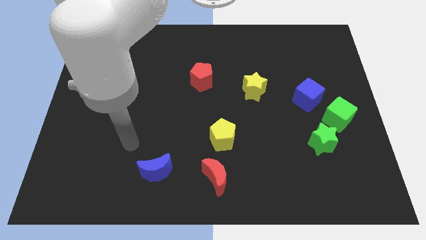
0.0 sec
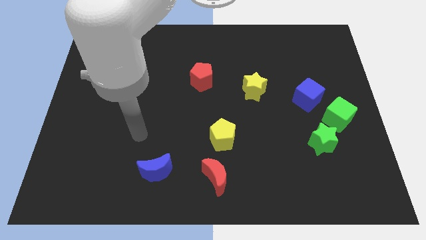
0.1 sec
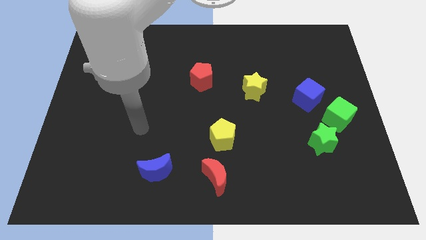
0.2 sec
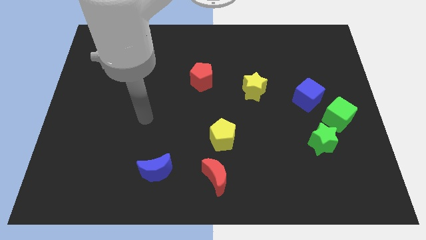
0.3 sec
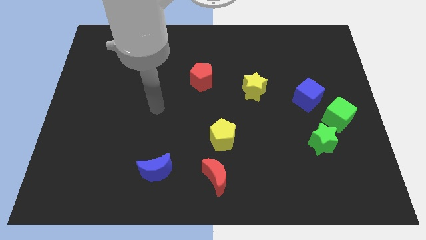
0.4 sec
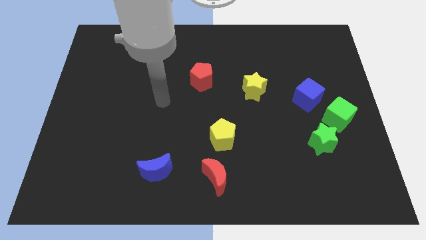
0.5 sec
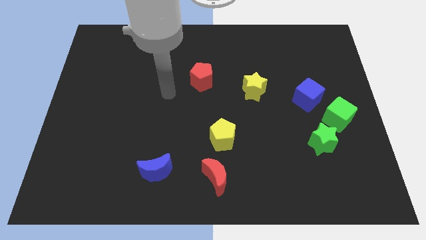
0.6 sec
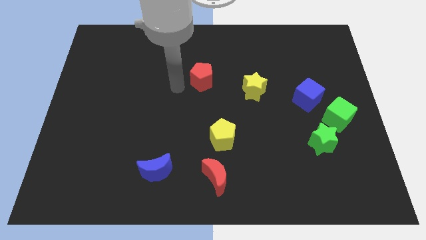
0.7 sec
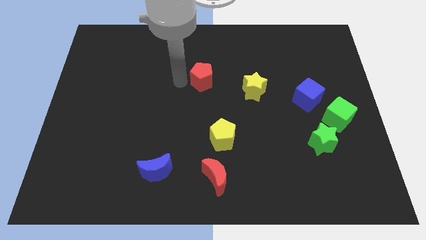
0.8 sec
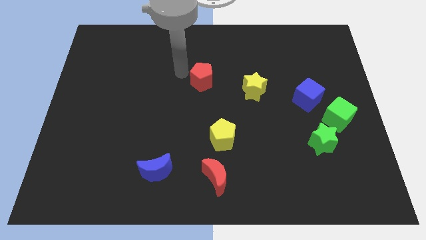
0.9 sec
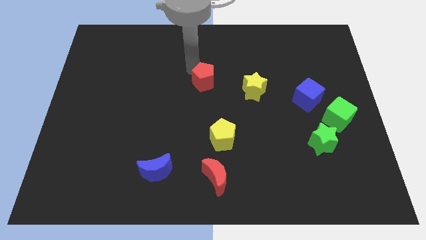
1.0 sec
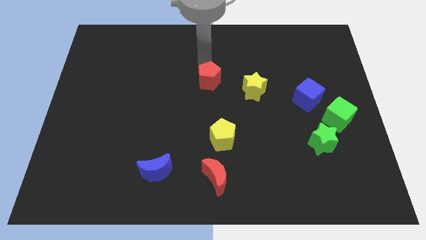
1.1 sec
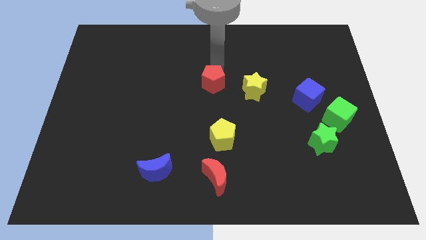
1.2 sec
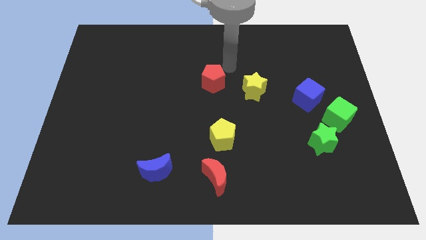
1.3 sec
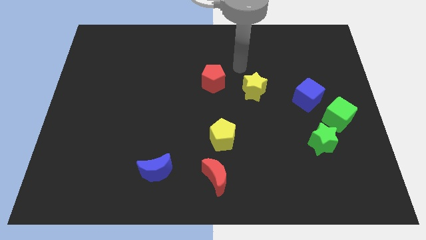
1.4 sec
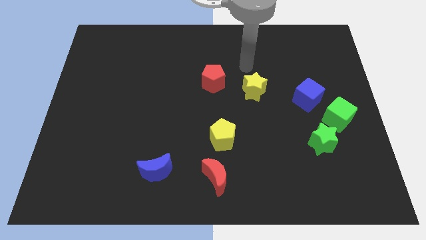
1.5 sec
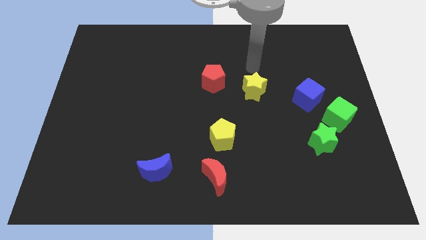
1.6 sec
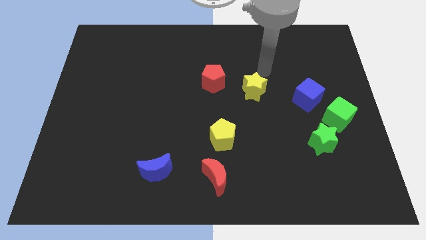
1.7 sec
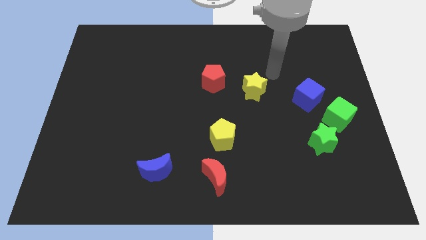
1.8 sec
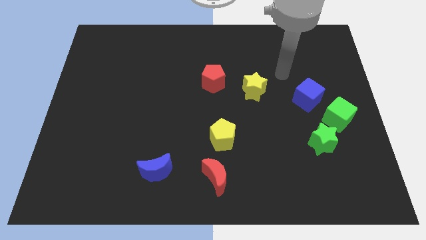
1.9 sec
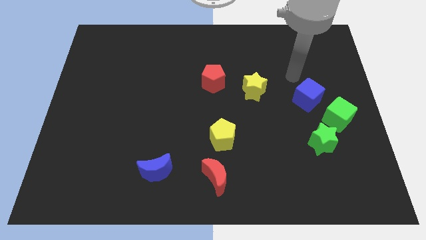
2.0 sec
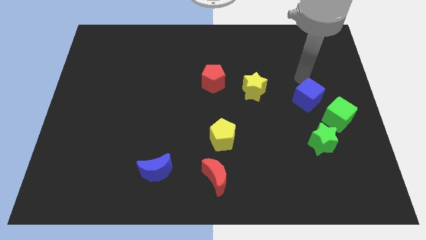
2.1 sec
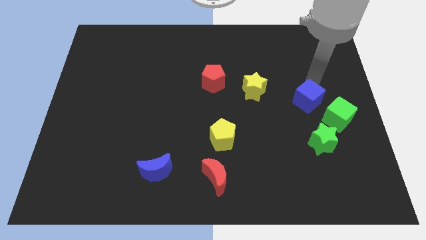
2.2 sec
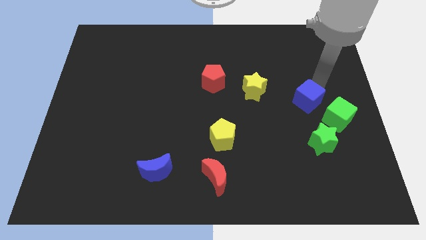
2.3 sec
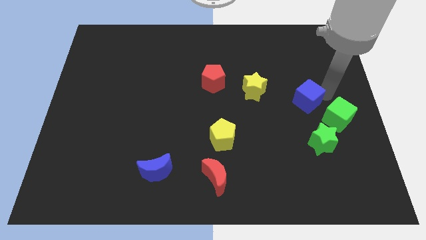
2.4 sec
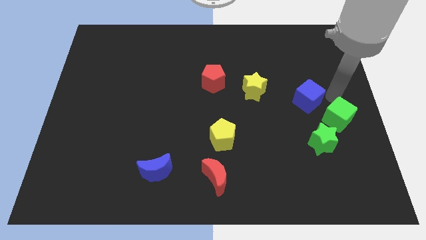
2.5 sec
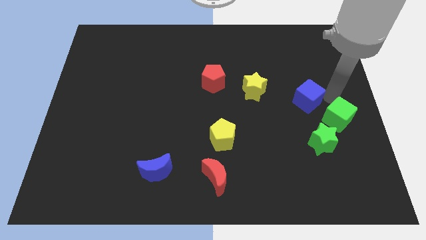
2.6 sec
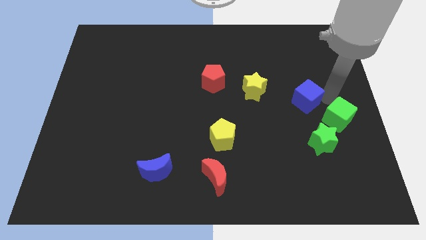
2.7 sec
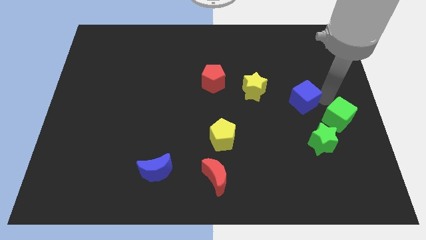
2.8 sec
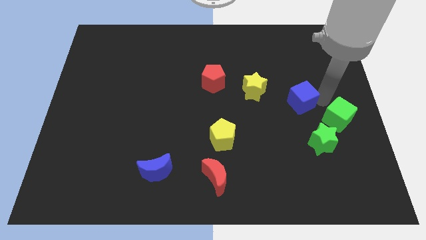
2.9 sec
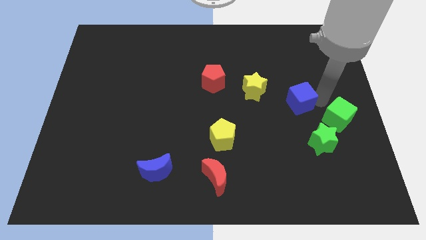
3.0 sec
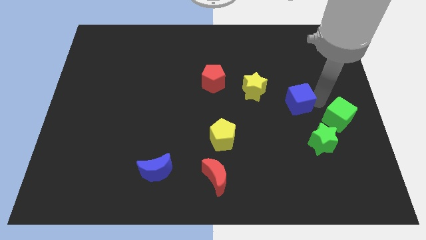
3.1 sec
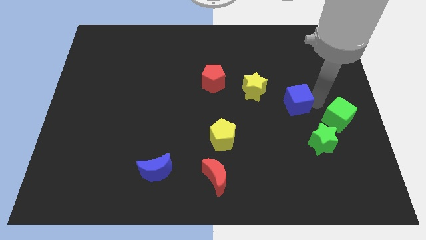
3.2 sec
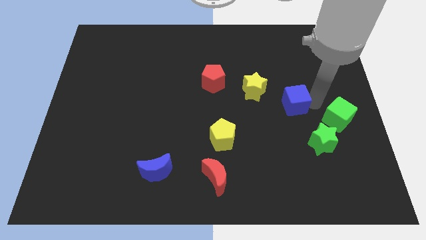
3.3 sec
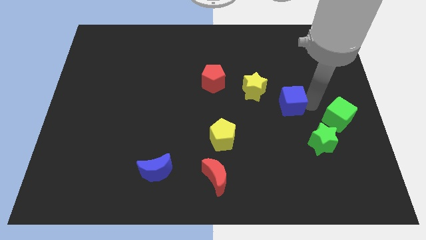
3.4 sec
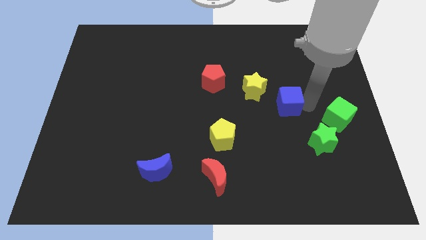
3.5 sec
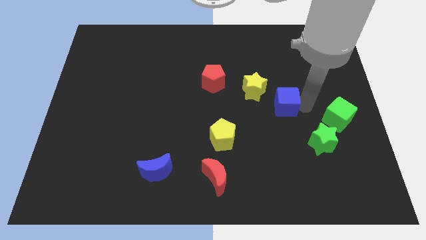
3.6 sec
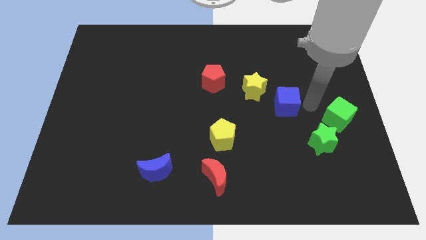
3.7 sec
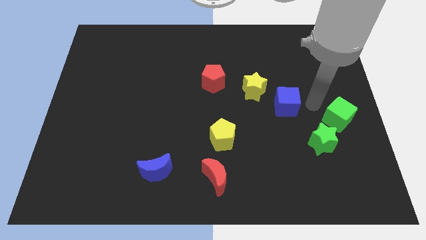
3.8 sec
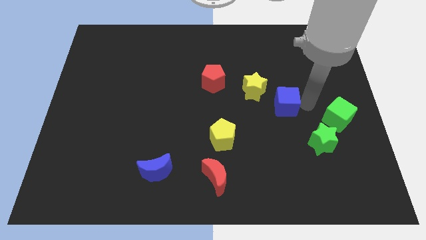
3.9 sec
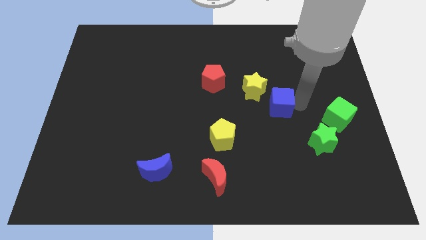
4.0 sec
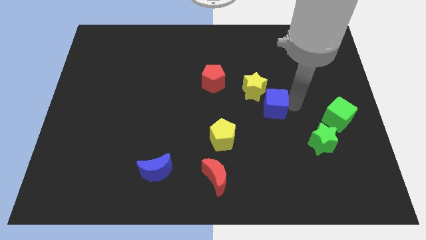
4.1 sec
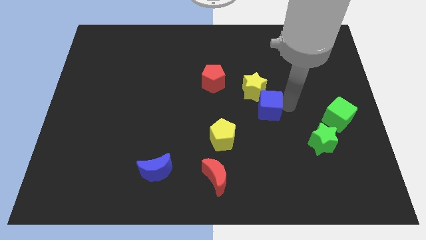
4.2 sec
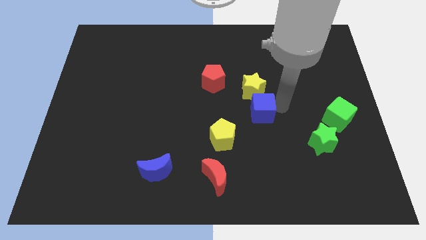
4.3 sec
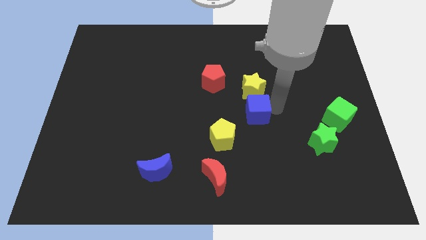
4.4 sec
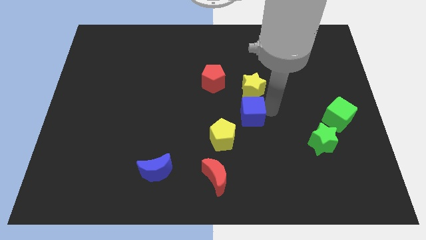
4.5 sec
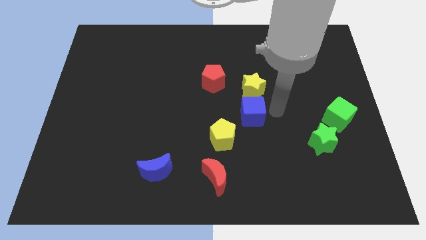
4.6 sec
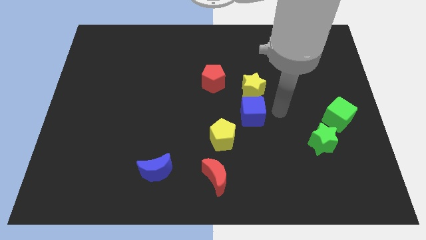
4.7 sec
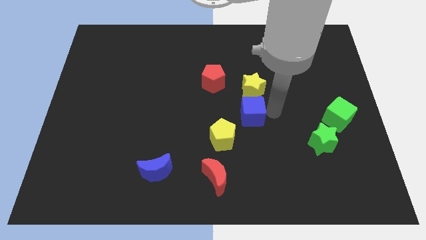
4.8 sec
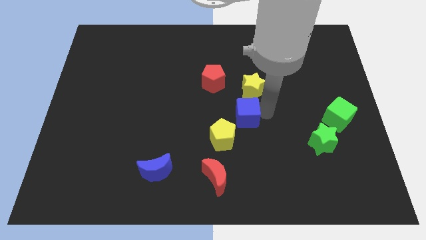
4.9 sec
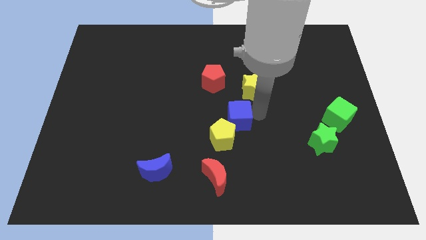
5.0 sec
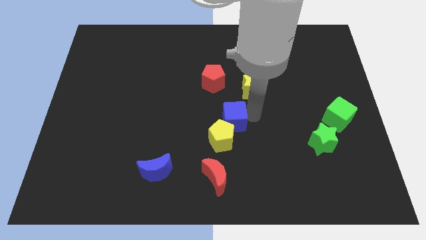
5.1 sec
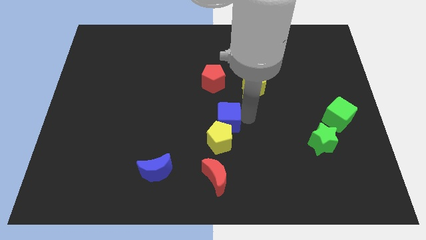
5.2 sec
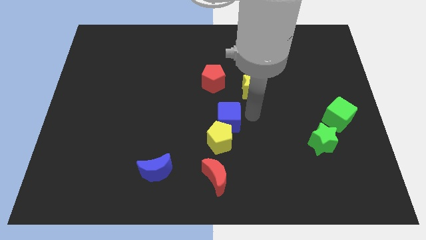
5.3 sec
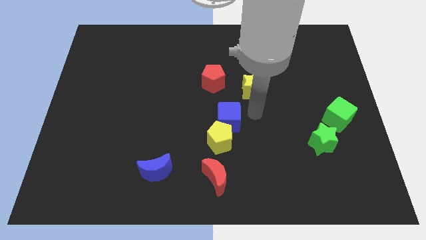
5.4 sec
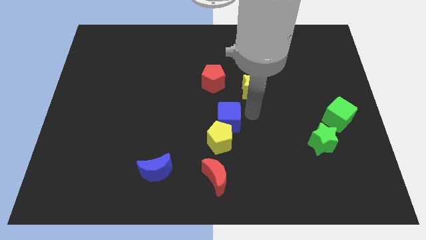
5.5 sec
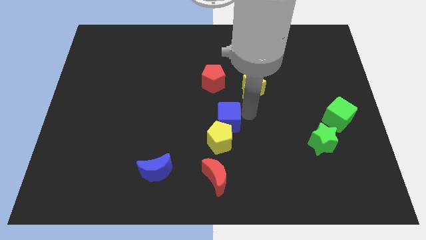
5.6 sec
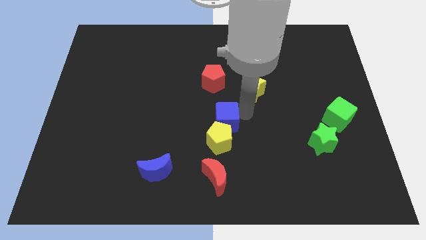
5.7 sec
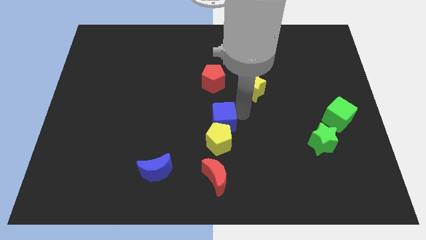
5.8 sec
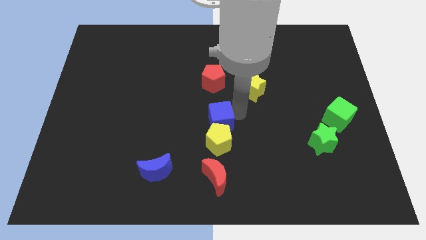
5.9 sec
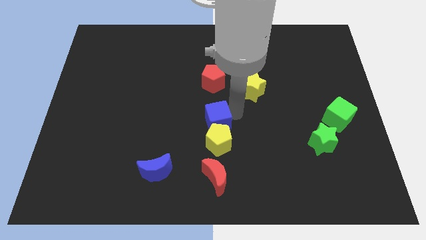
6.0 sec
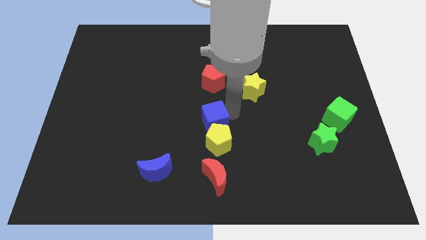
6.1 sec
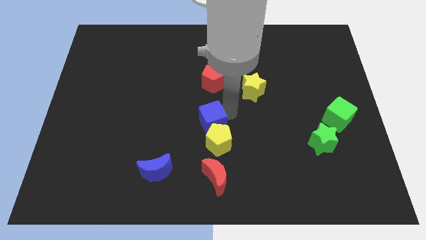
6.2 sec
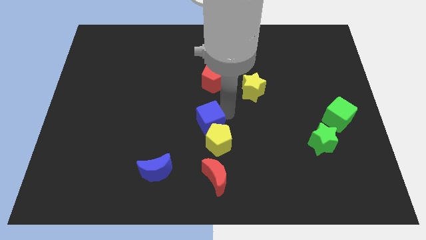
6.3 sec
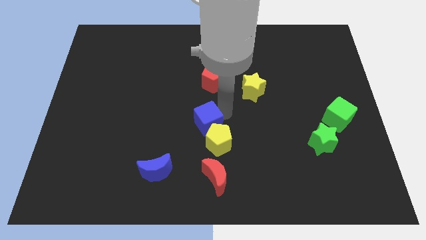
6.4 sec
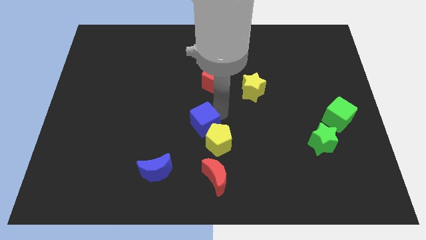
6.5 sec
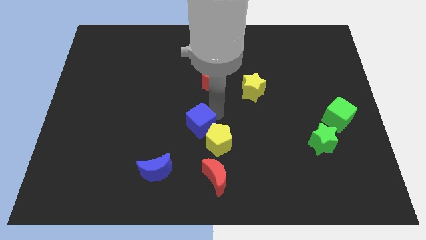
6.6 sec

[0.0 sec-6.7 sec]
slide the blue cube to the left of the yellow pentagon

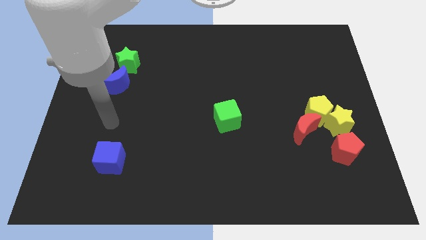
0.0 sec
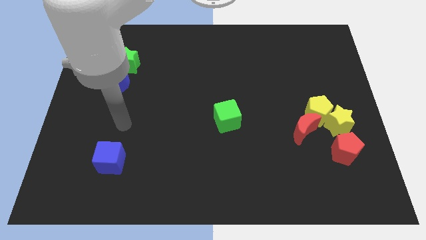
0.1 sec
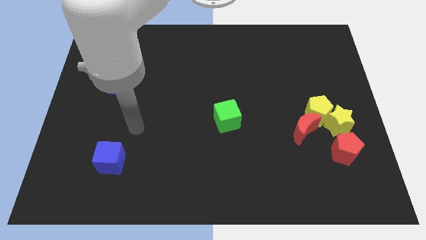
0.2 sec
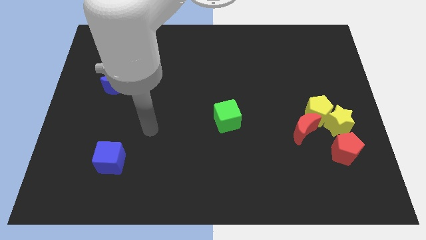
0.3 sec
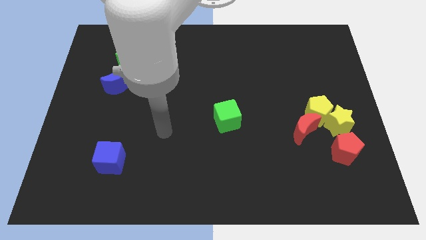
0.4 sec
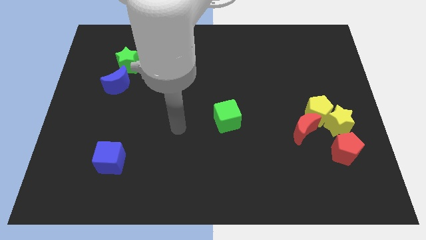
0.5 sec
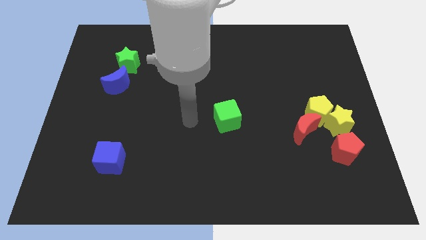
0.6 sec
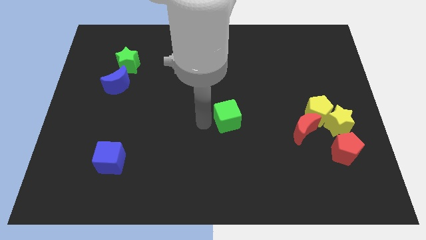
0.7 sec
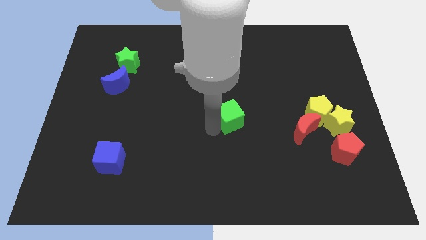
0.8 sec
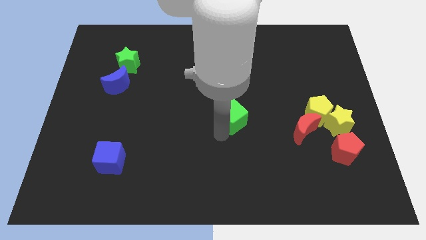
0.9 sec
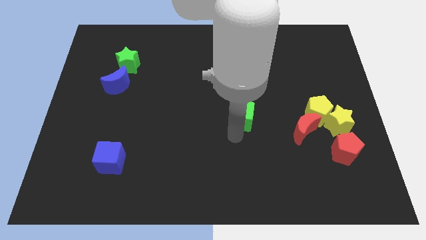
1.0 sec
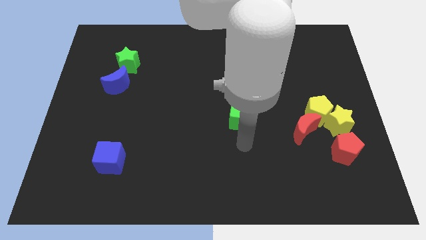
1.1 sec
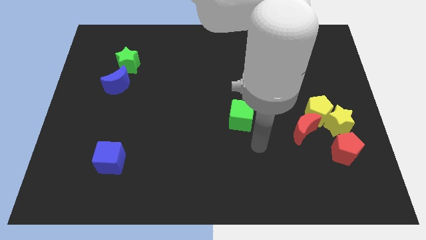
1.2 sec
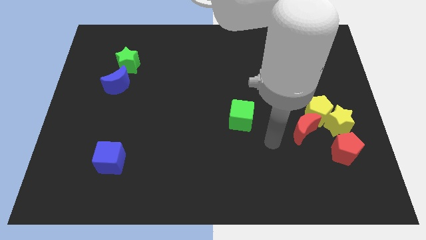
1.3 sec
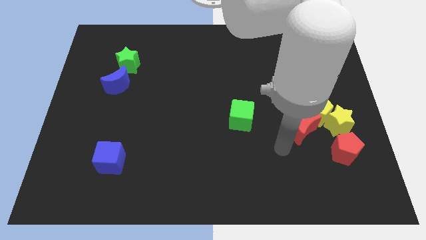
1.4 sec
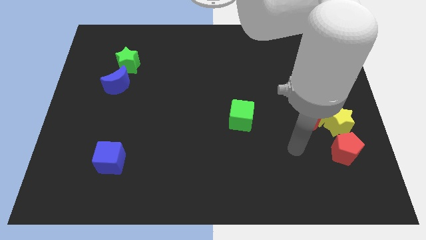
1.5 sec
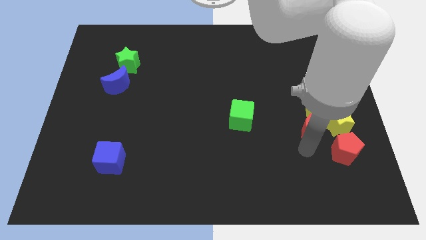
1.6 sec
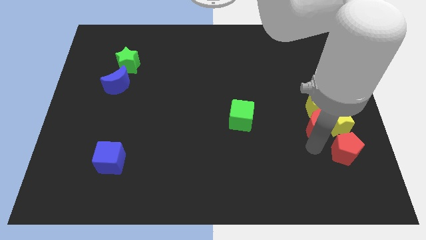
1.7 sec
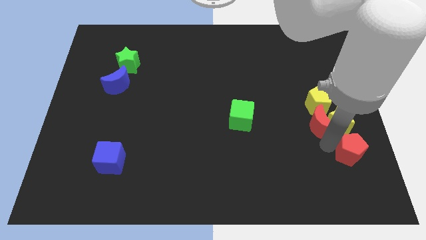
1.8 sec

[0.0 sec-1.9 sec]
put the red moon to the top side of the red pentagon

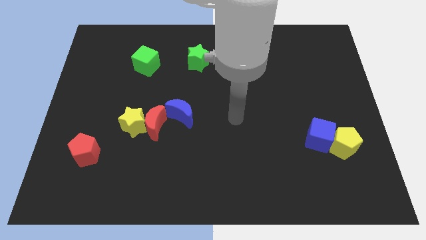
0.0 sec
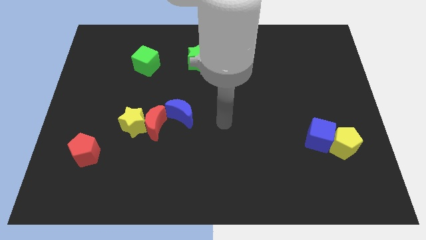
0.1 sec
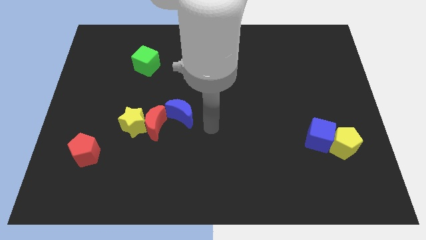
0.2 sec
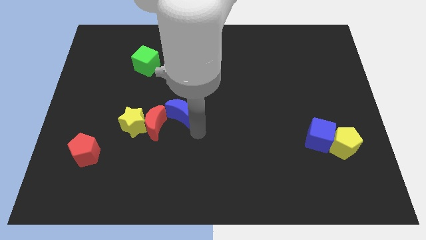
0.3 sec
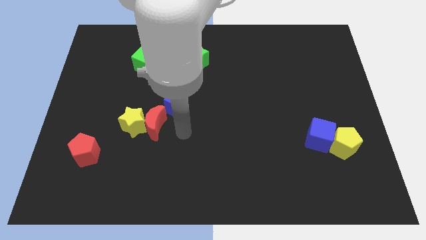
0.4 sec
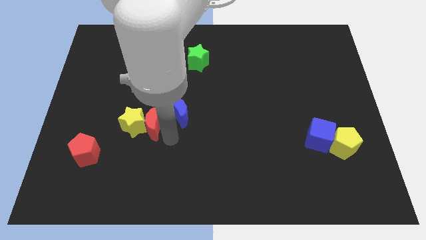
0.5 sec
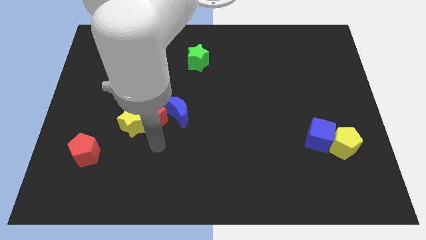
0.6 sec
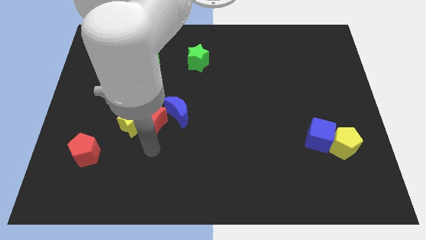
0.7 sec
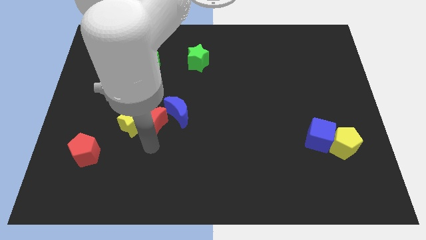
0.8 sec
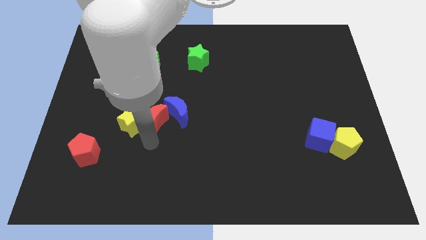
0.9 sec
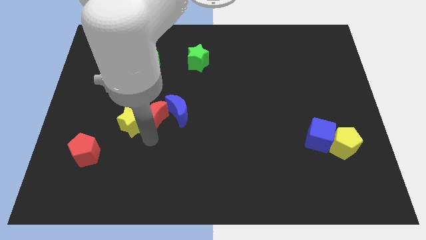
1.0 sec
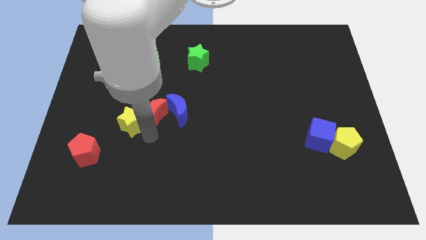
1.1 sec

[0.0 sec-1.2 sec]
push the red moon to the top left side of the blue moon
